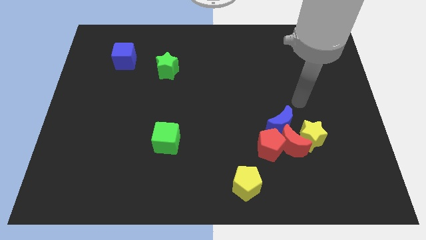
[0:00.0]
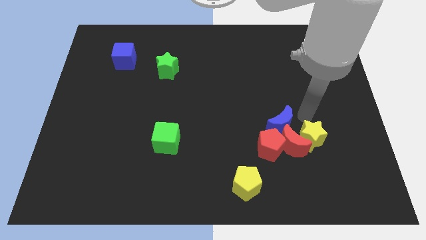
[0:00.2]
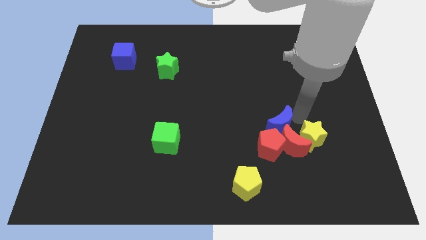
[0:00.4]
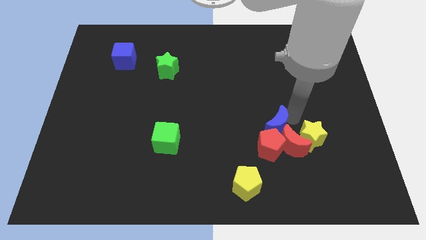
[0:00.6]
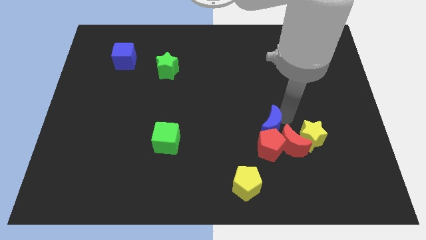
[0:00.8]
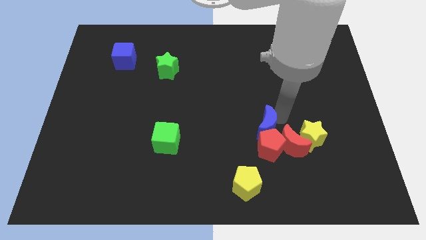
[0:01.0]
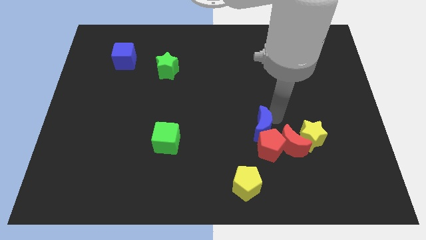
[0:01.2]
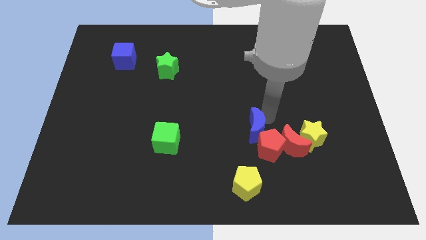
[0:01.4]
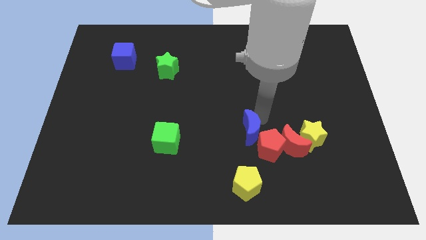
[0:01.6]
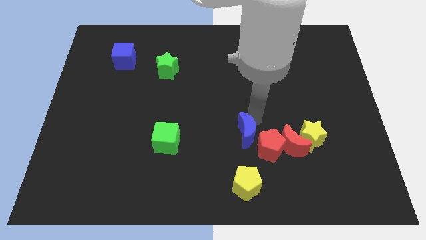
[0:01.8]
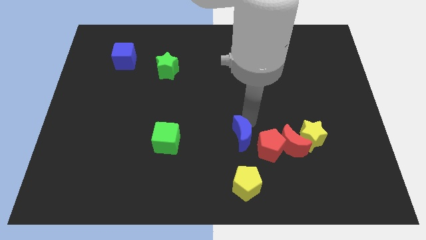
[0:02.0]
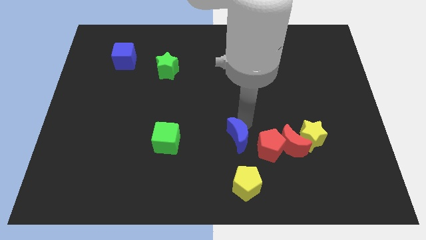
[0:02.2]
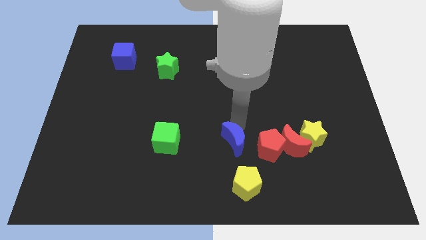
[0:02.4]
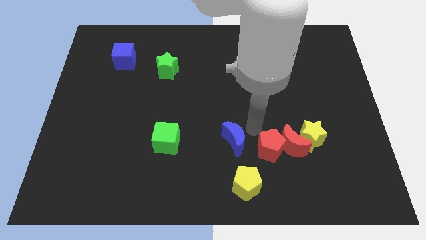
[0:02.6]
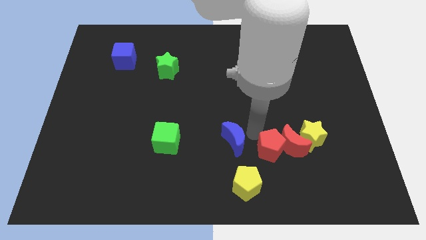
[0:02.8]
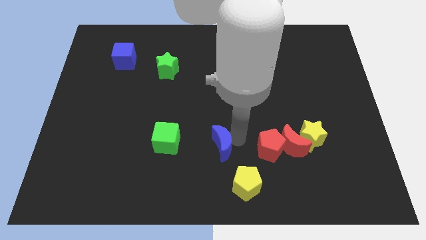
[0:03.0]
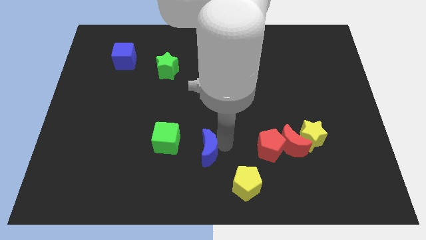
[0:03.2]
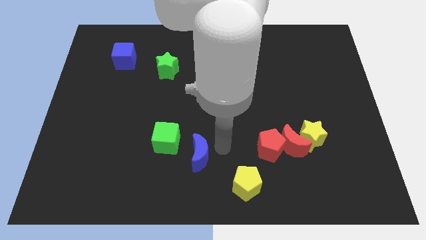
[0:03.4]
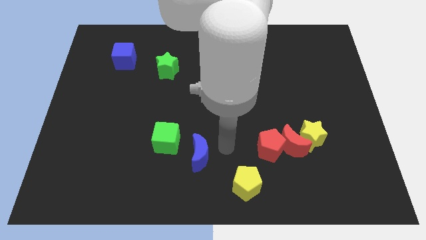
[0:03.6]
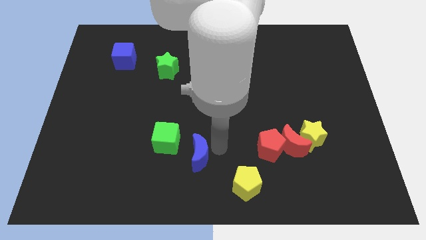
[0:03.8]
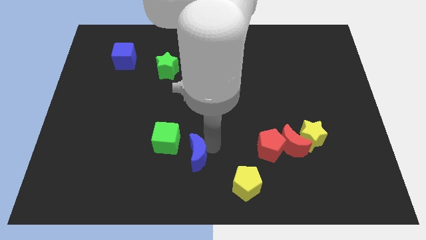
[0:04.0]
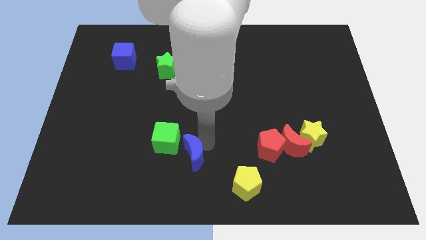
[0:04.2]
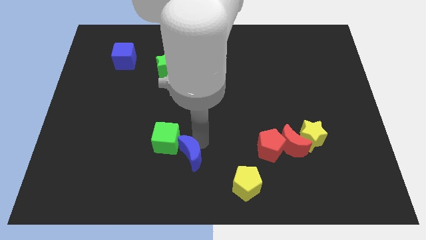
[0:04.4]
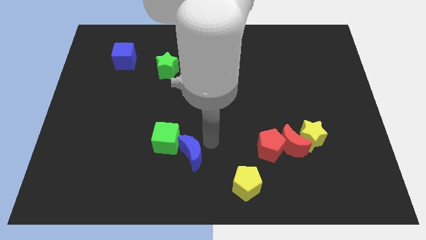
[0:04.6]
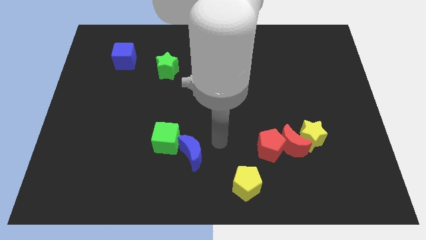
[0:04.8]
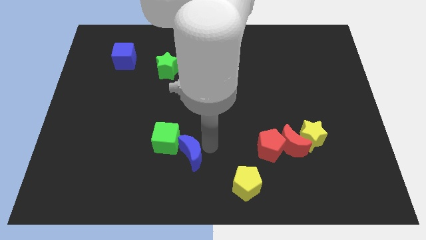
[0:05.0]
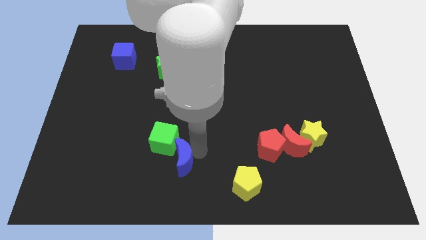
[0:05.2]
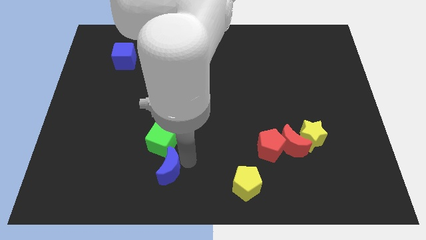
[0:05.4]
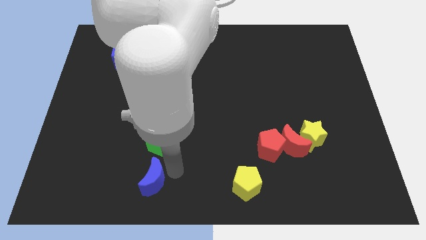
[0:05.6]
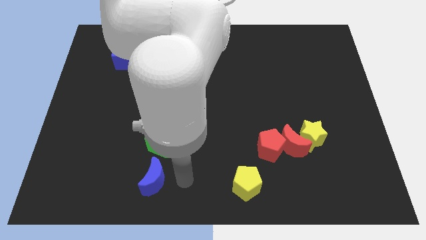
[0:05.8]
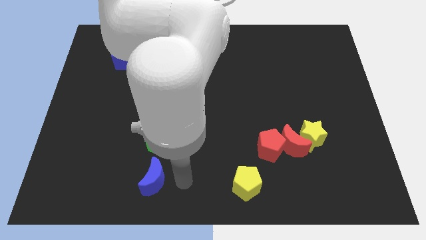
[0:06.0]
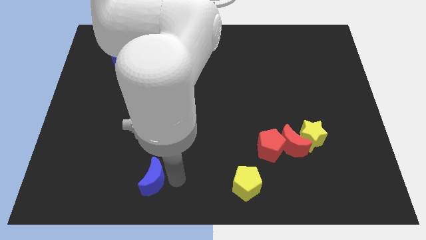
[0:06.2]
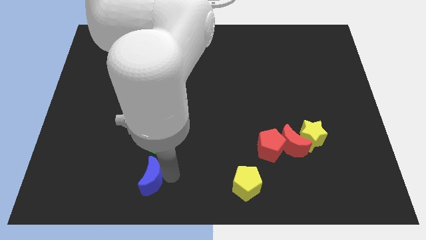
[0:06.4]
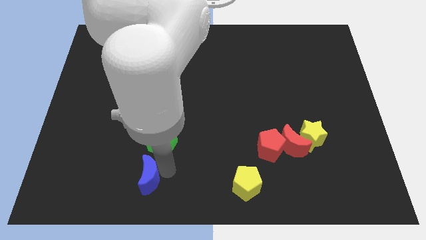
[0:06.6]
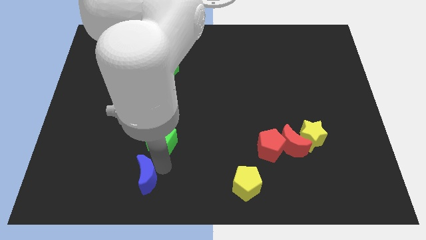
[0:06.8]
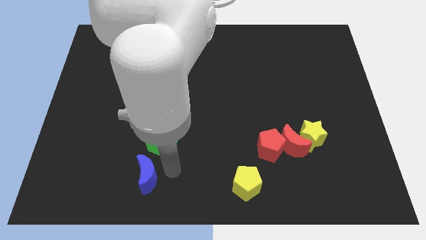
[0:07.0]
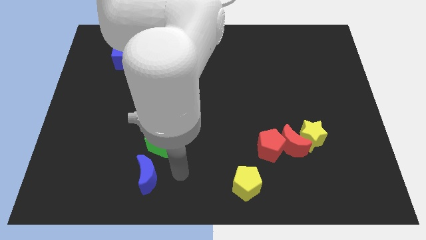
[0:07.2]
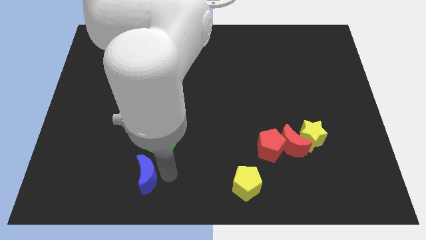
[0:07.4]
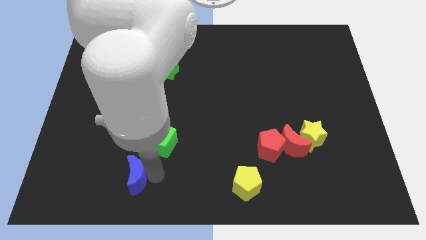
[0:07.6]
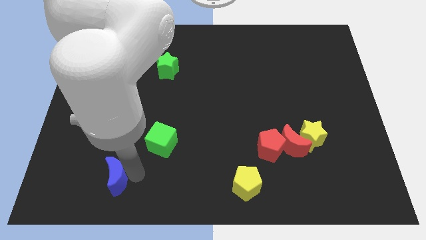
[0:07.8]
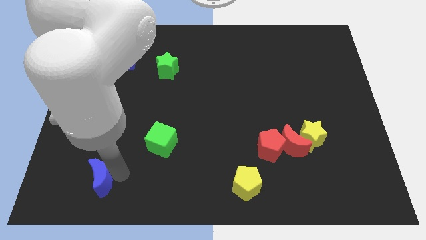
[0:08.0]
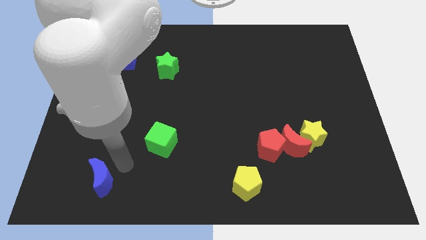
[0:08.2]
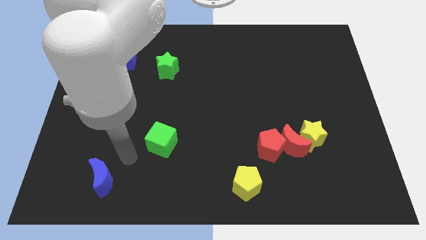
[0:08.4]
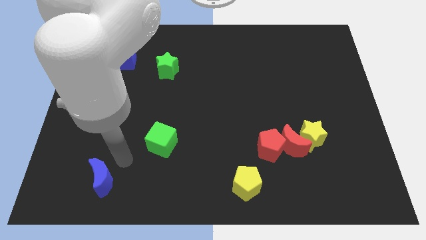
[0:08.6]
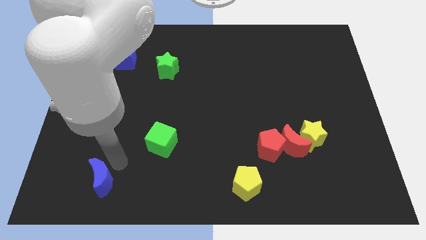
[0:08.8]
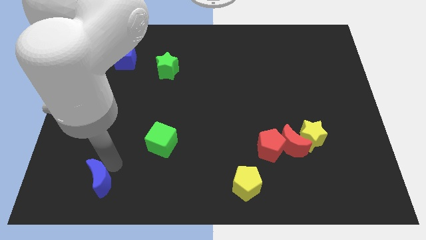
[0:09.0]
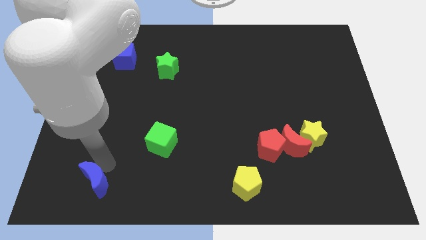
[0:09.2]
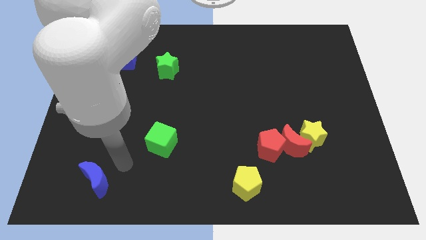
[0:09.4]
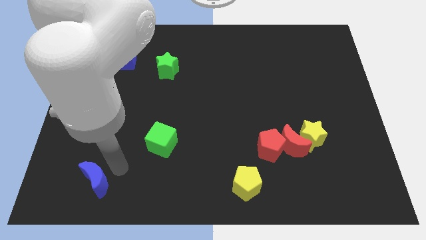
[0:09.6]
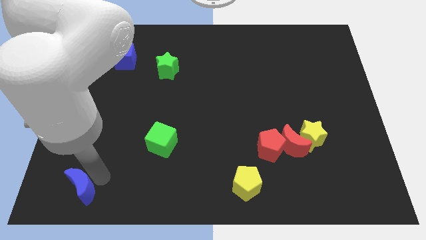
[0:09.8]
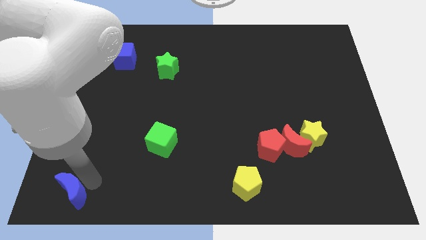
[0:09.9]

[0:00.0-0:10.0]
slide the blue moon to the bottom left of the board

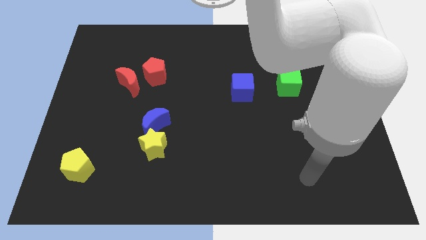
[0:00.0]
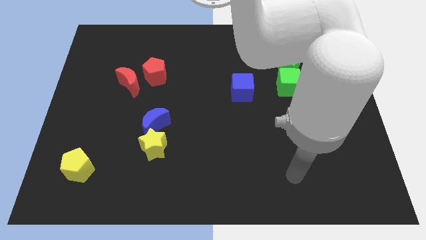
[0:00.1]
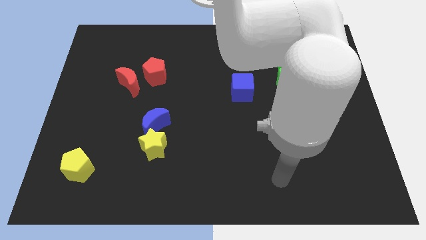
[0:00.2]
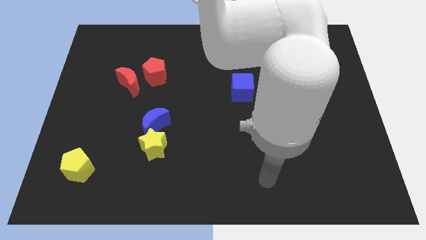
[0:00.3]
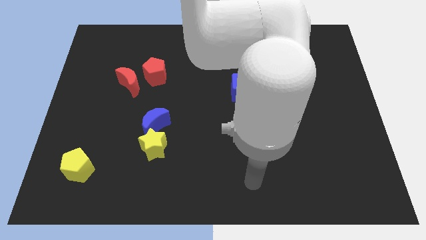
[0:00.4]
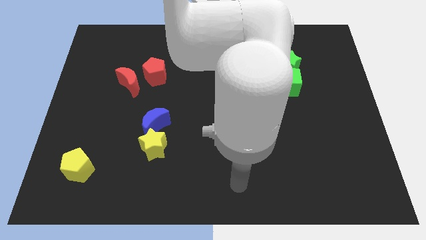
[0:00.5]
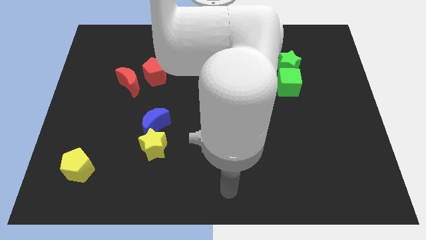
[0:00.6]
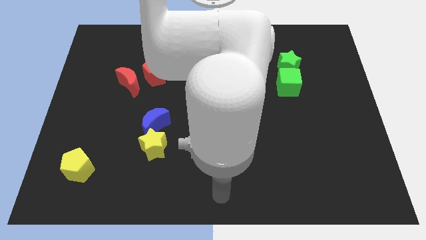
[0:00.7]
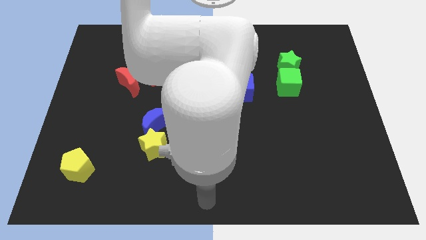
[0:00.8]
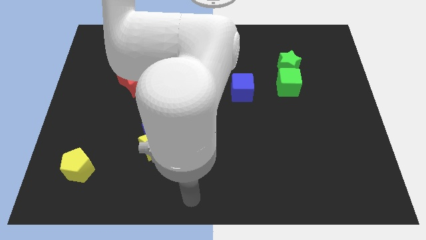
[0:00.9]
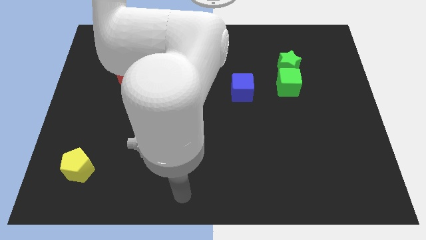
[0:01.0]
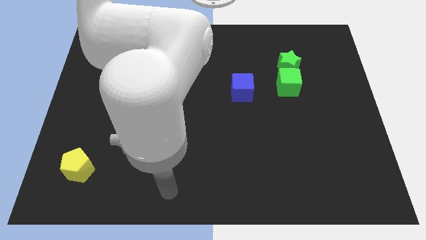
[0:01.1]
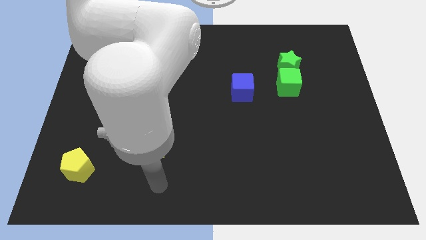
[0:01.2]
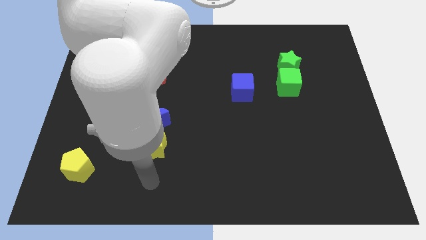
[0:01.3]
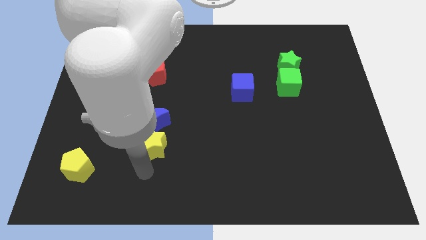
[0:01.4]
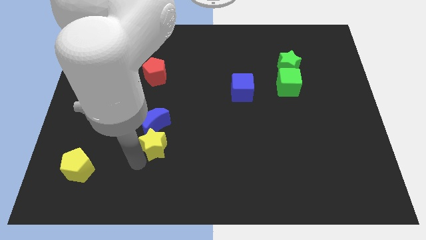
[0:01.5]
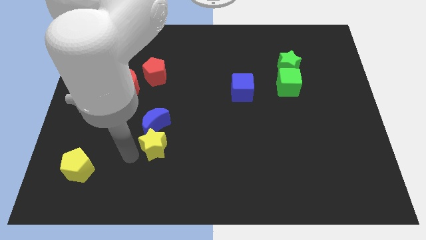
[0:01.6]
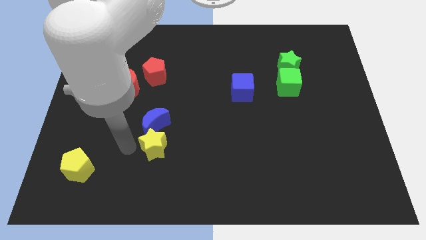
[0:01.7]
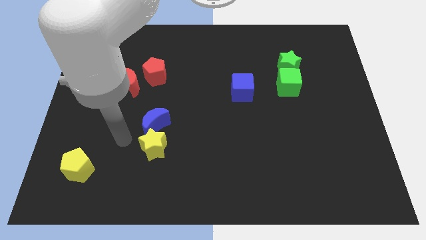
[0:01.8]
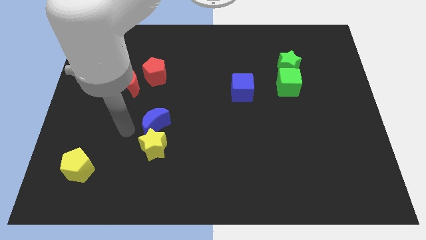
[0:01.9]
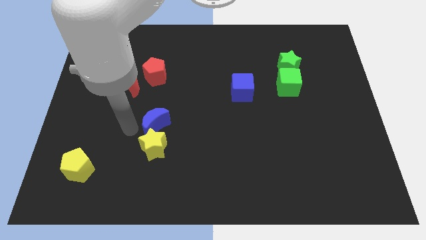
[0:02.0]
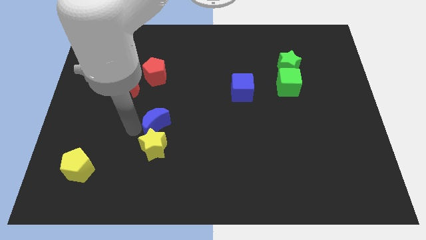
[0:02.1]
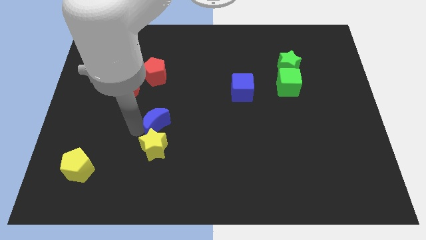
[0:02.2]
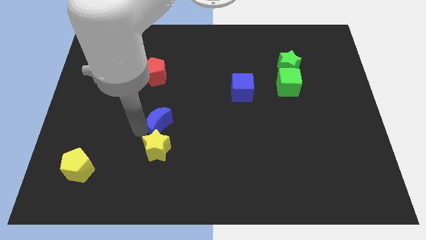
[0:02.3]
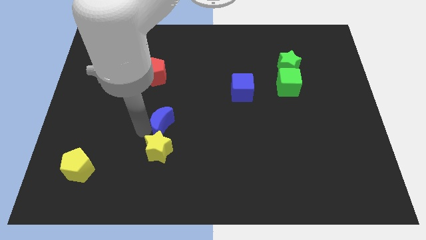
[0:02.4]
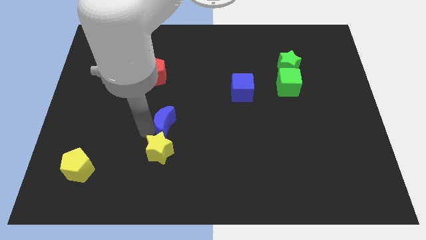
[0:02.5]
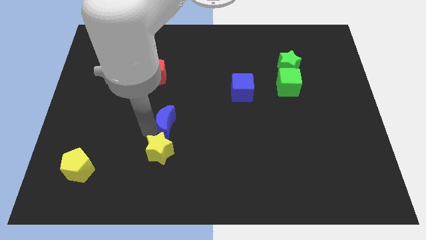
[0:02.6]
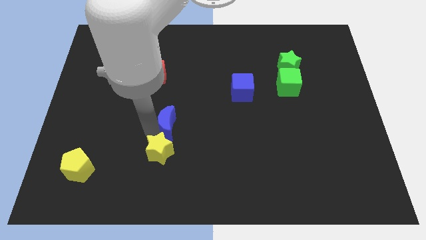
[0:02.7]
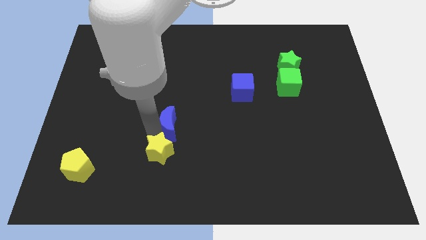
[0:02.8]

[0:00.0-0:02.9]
push the blue moon to the center
